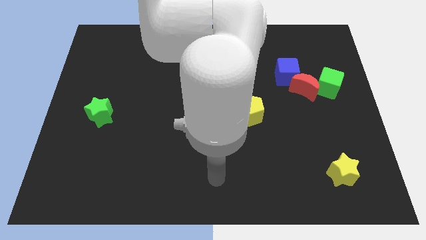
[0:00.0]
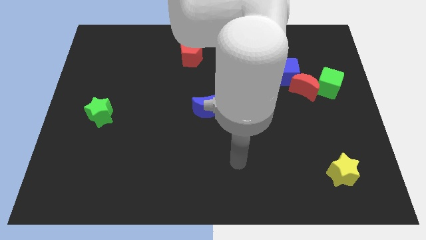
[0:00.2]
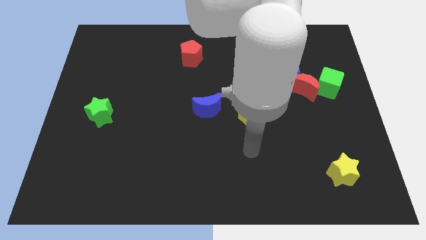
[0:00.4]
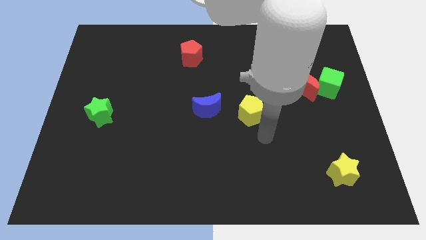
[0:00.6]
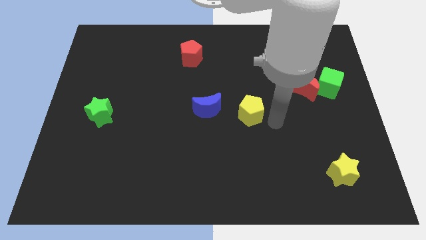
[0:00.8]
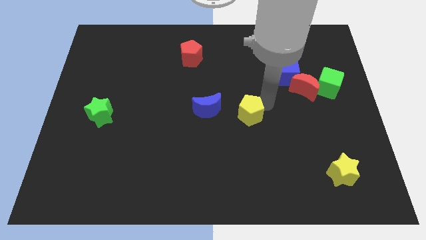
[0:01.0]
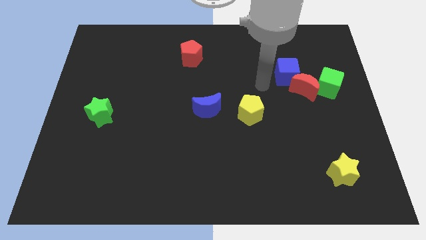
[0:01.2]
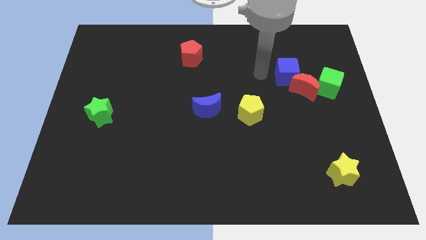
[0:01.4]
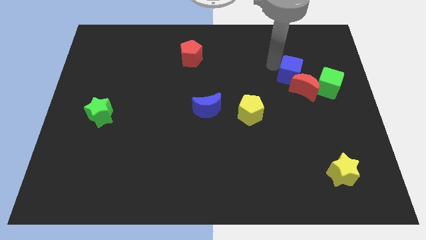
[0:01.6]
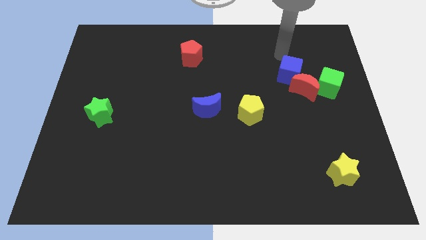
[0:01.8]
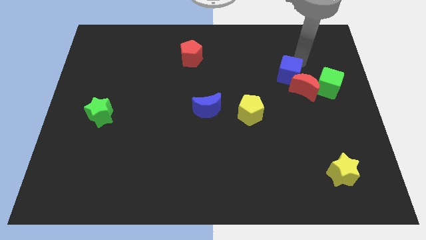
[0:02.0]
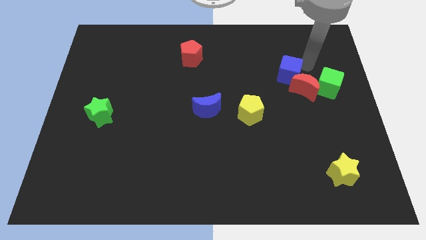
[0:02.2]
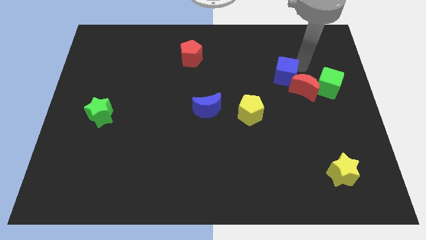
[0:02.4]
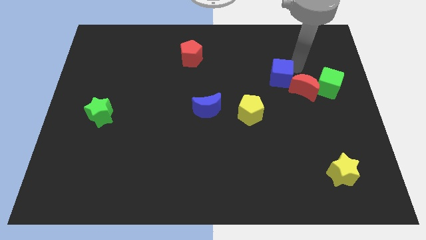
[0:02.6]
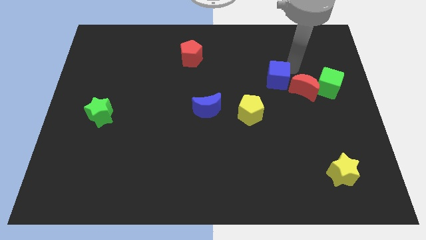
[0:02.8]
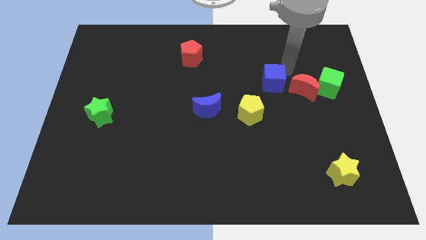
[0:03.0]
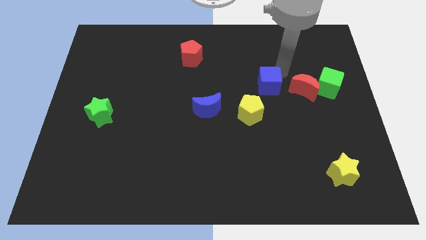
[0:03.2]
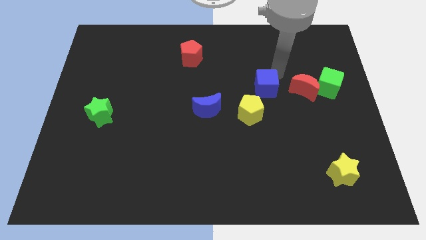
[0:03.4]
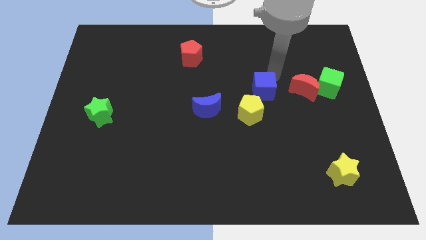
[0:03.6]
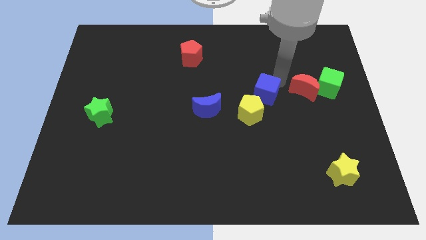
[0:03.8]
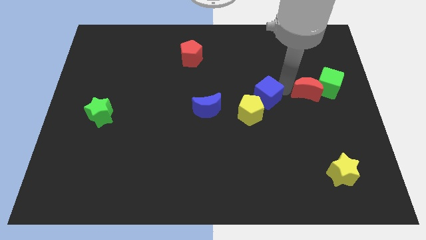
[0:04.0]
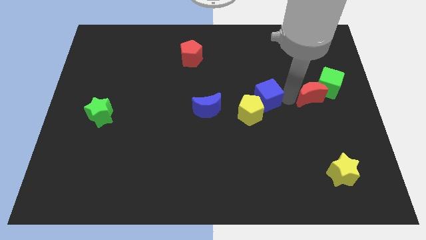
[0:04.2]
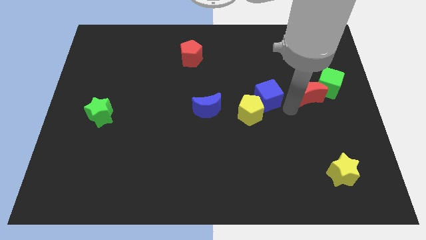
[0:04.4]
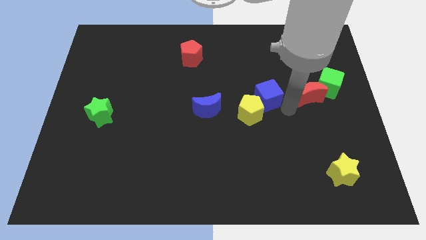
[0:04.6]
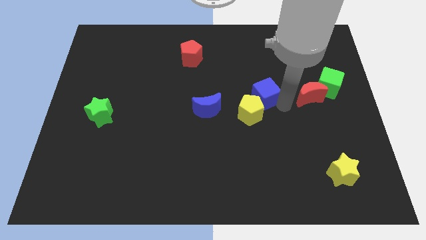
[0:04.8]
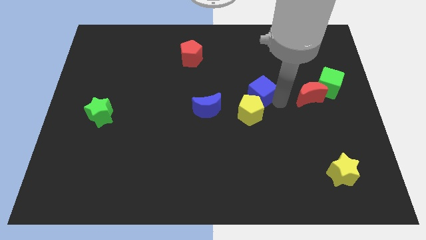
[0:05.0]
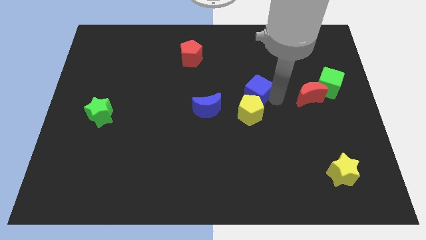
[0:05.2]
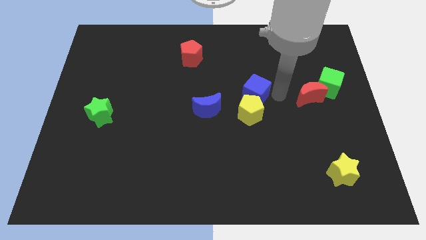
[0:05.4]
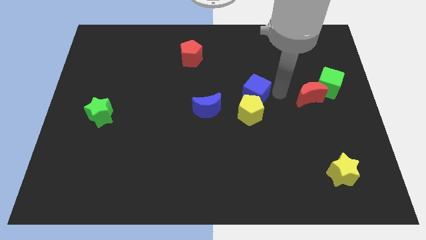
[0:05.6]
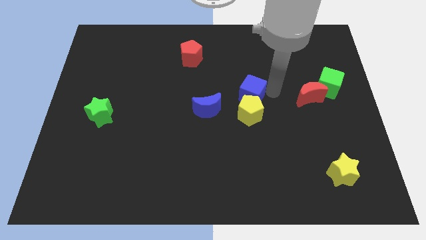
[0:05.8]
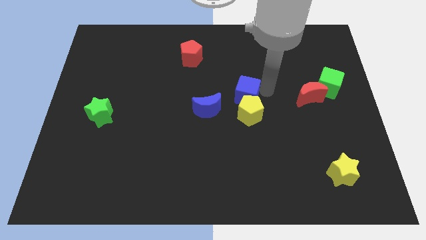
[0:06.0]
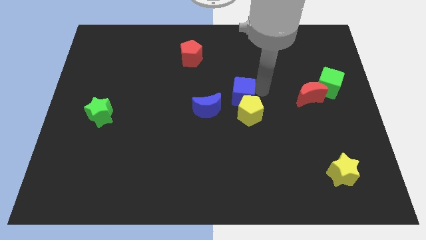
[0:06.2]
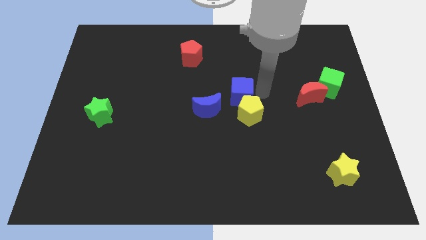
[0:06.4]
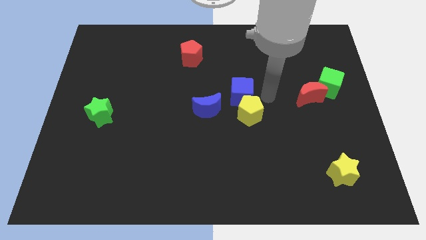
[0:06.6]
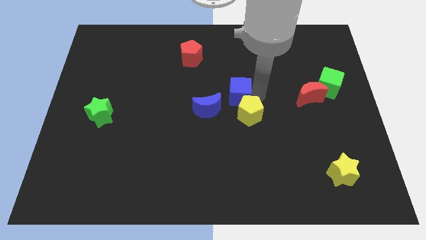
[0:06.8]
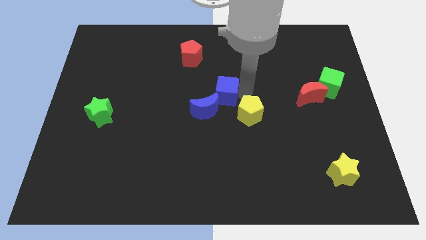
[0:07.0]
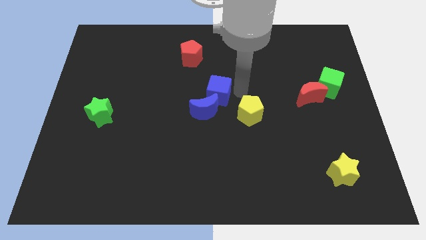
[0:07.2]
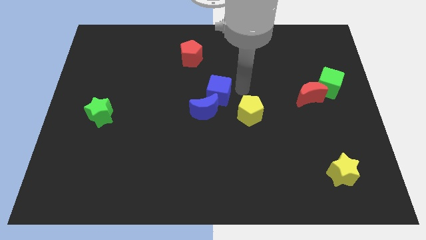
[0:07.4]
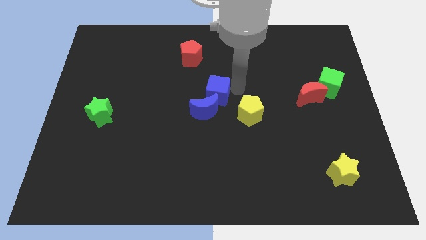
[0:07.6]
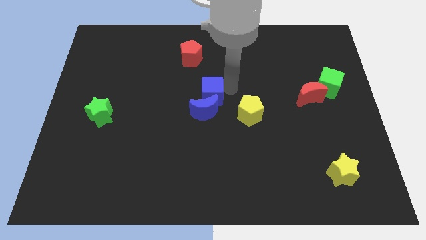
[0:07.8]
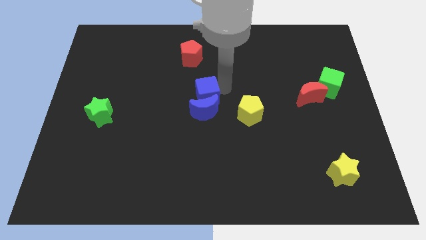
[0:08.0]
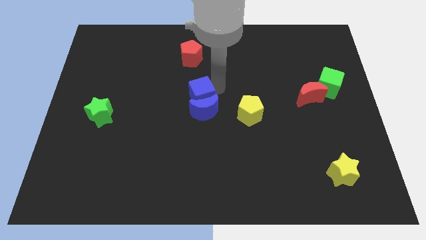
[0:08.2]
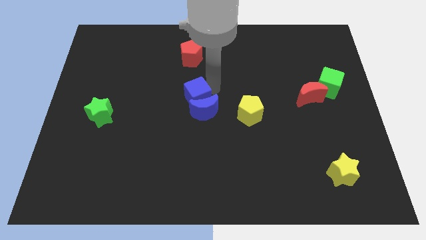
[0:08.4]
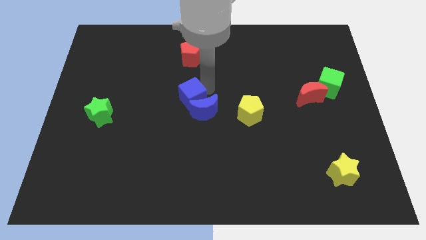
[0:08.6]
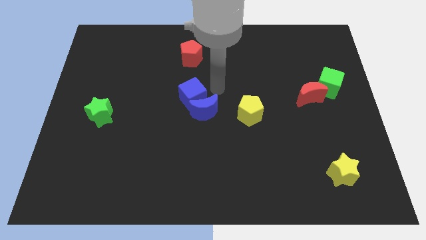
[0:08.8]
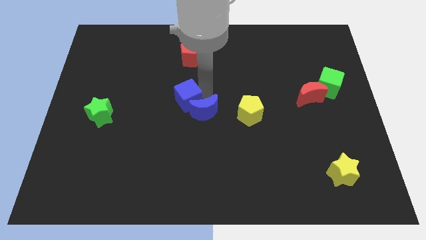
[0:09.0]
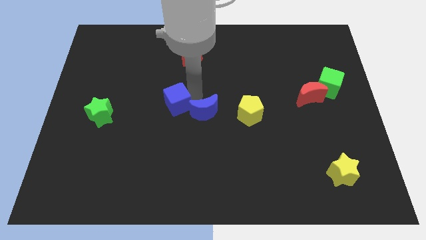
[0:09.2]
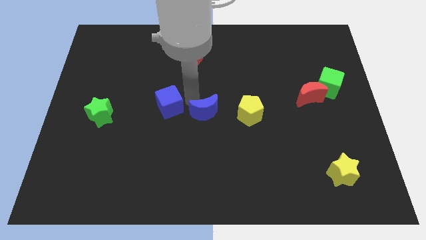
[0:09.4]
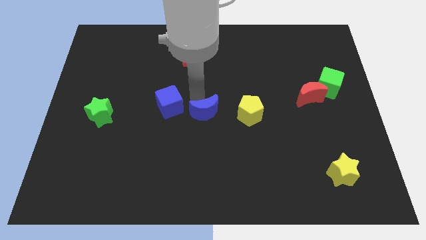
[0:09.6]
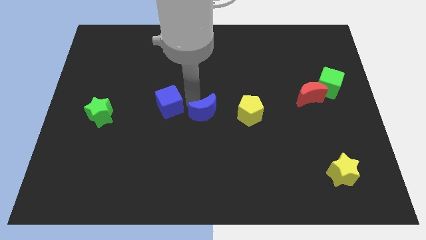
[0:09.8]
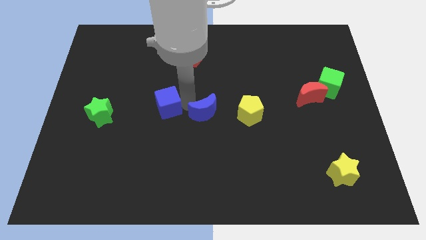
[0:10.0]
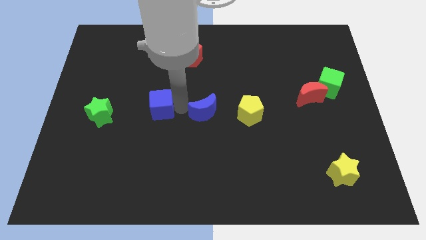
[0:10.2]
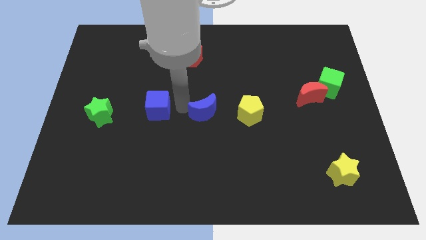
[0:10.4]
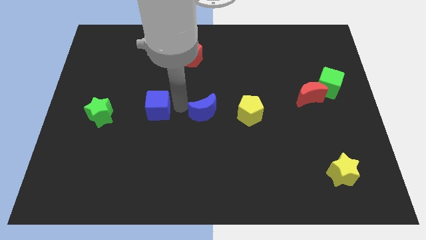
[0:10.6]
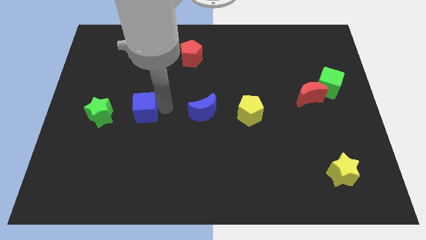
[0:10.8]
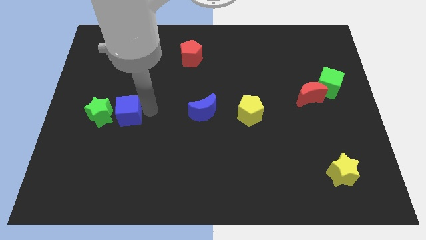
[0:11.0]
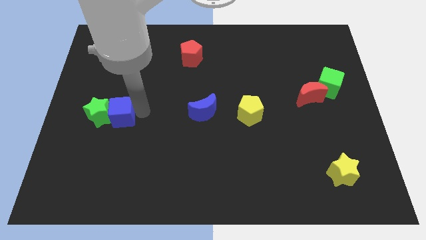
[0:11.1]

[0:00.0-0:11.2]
push the blue cube close to the green star

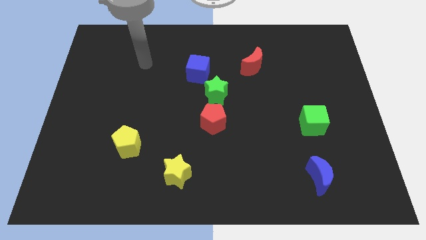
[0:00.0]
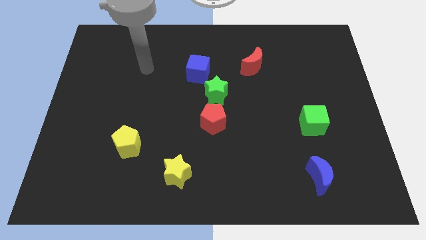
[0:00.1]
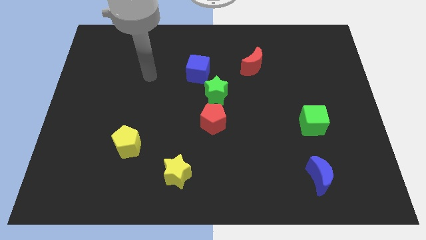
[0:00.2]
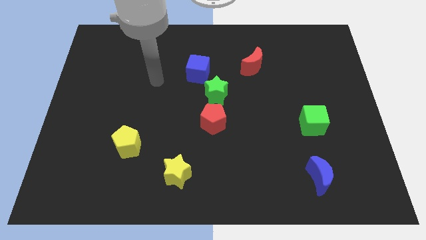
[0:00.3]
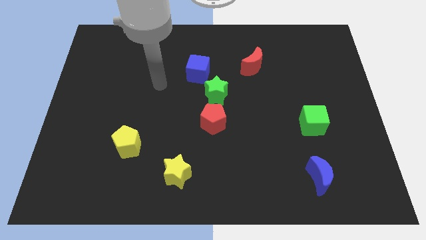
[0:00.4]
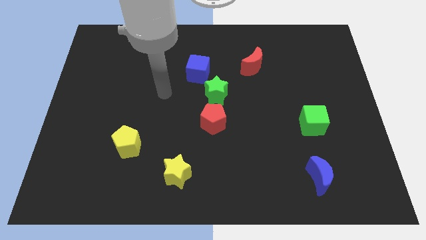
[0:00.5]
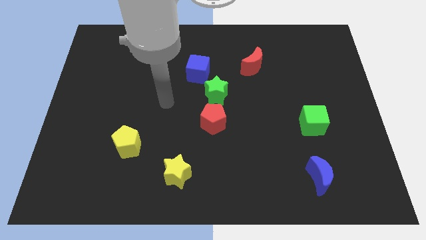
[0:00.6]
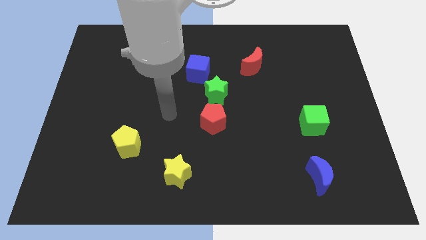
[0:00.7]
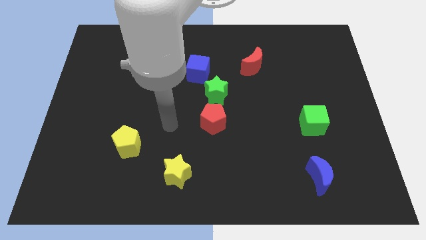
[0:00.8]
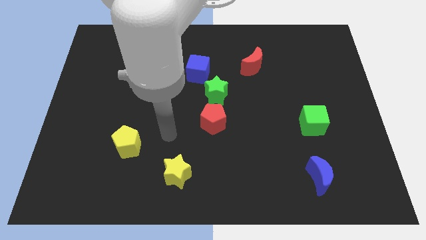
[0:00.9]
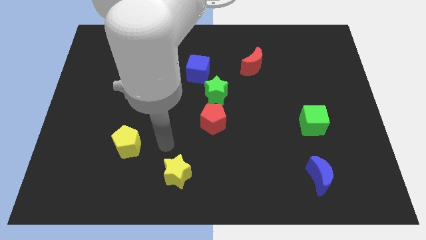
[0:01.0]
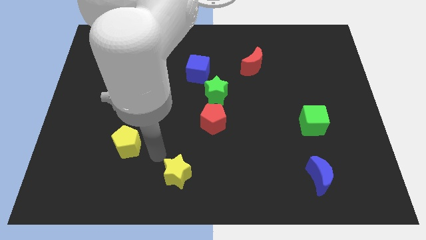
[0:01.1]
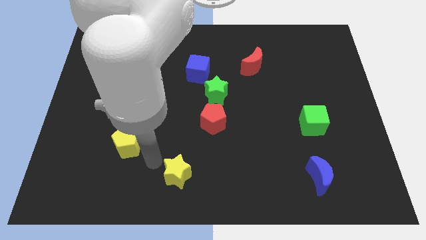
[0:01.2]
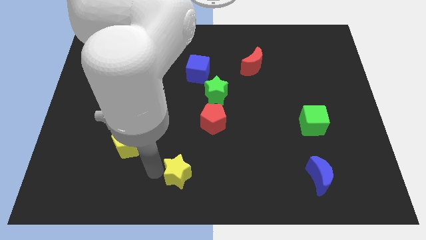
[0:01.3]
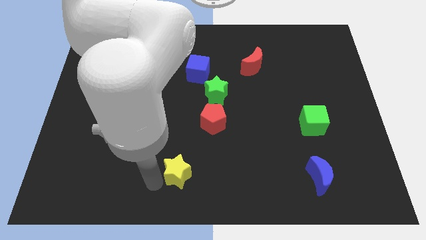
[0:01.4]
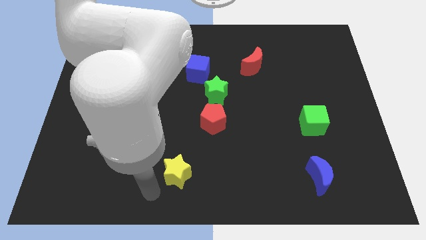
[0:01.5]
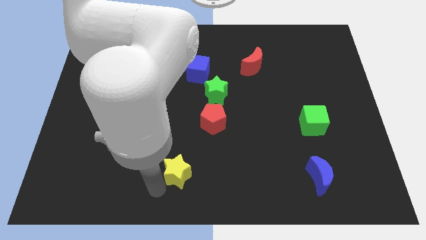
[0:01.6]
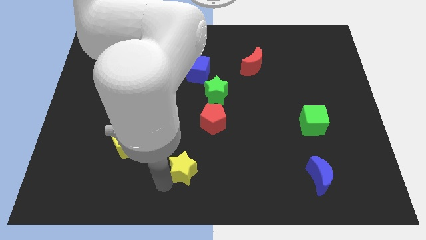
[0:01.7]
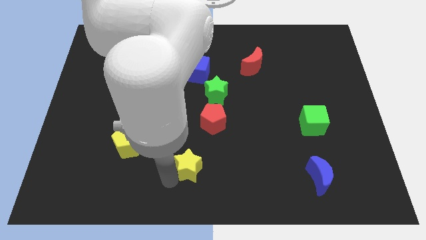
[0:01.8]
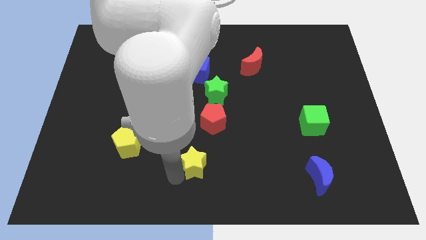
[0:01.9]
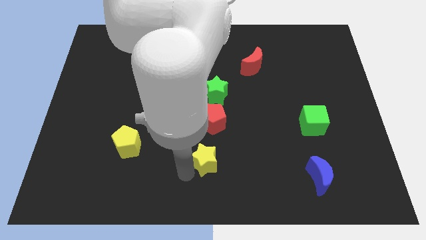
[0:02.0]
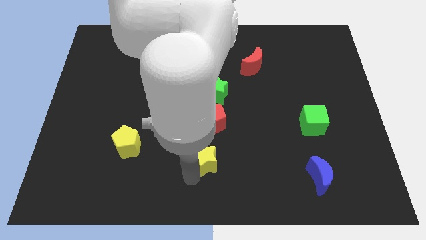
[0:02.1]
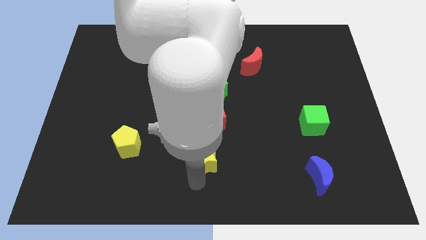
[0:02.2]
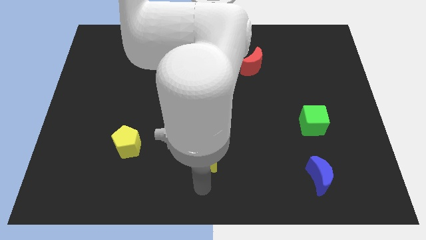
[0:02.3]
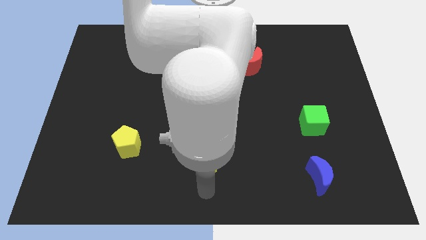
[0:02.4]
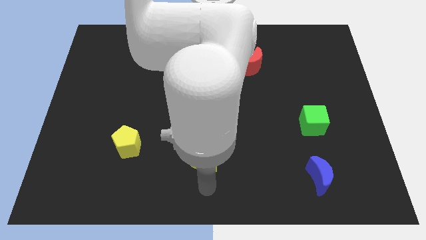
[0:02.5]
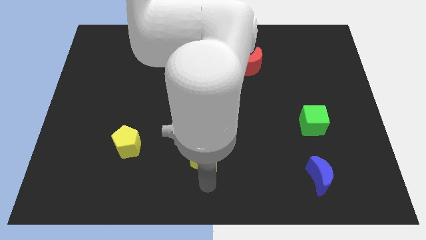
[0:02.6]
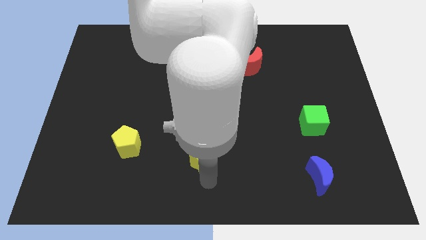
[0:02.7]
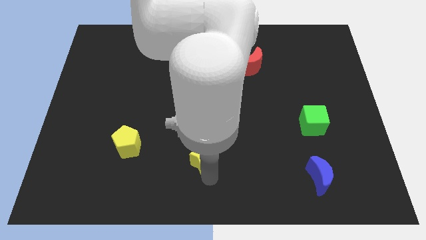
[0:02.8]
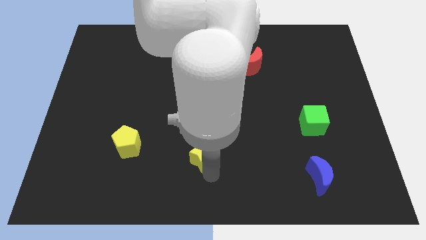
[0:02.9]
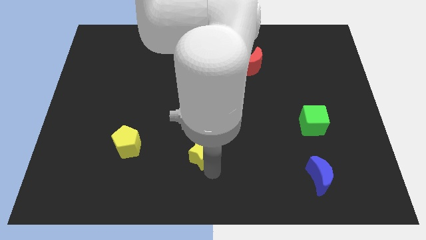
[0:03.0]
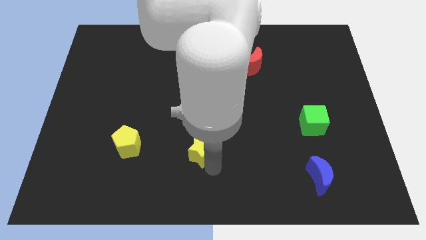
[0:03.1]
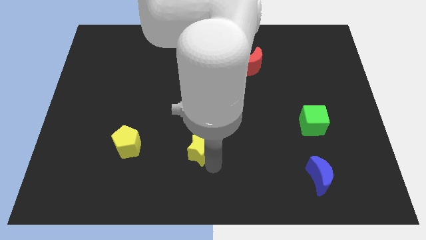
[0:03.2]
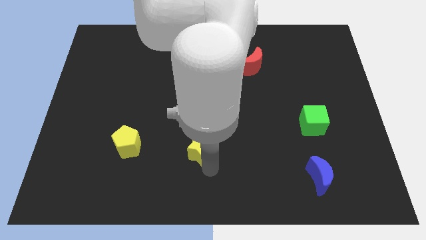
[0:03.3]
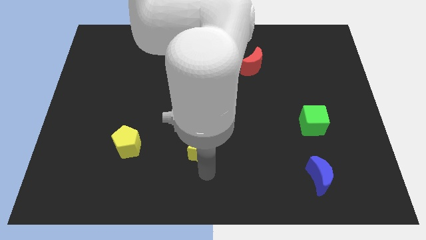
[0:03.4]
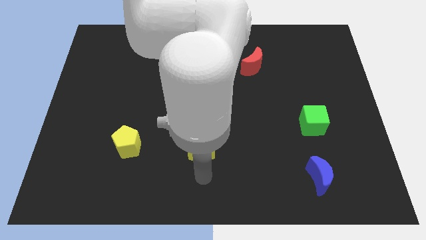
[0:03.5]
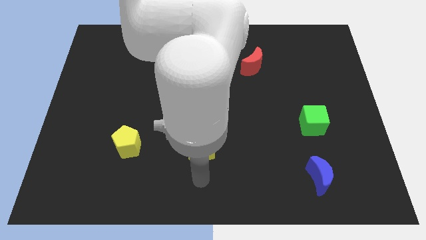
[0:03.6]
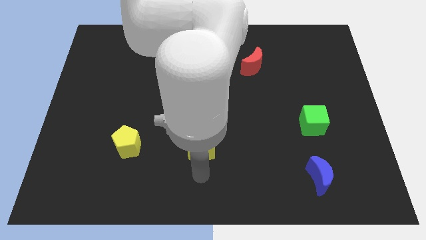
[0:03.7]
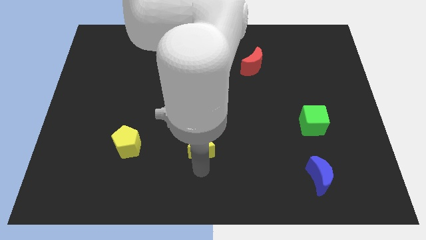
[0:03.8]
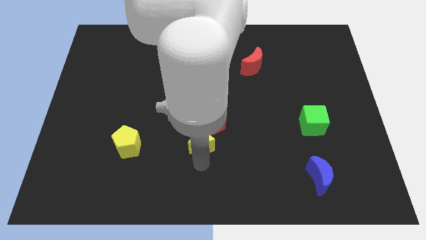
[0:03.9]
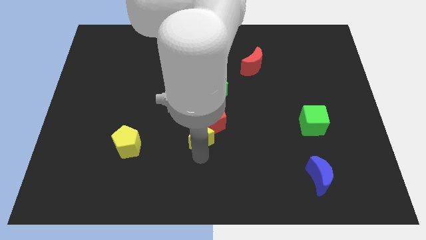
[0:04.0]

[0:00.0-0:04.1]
push the yellow star next to the red pentagon
